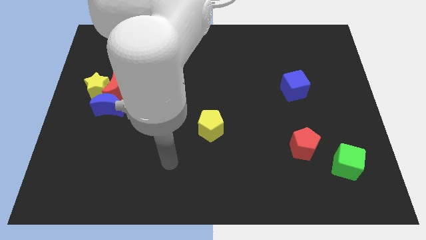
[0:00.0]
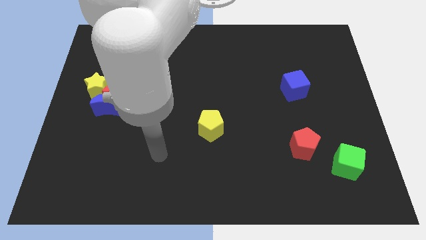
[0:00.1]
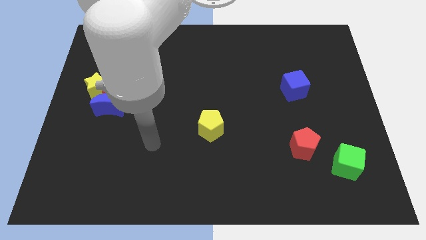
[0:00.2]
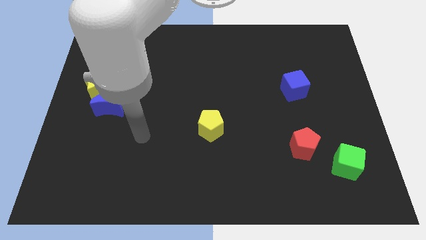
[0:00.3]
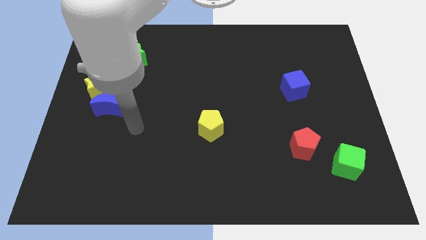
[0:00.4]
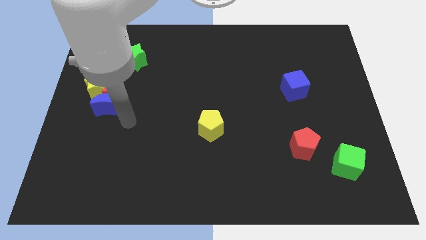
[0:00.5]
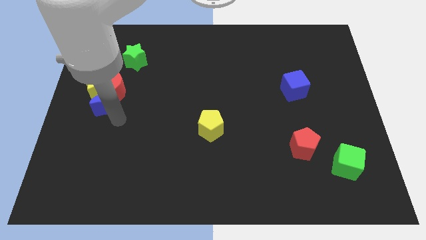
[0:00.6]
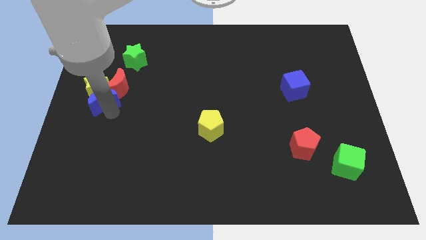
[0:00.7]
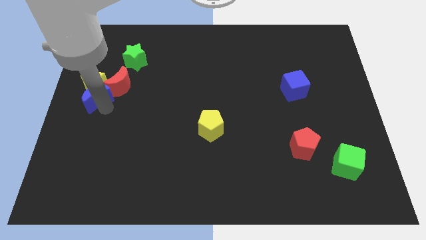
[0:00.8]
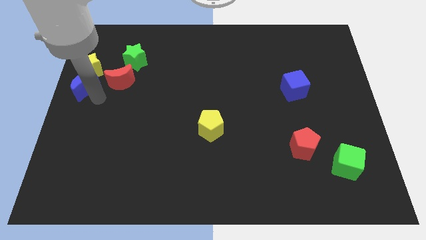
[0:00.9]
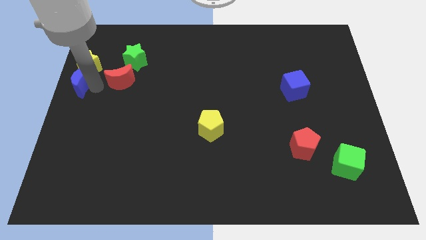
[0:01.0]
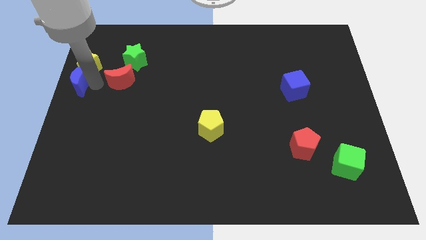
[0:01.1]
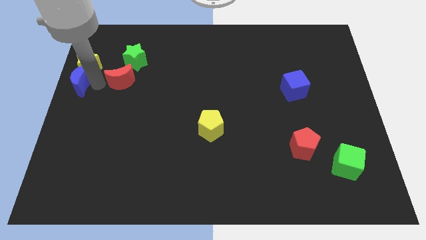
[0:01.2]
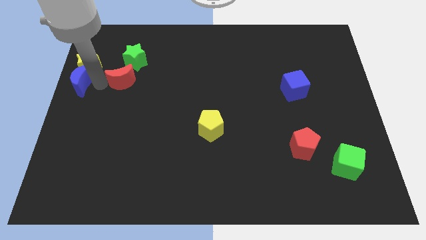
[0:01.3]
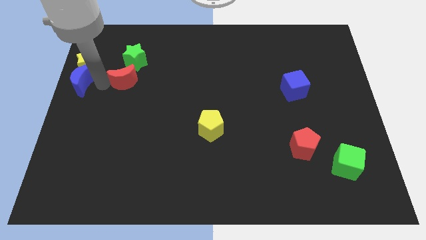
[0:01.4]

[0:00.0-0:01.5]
move the red moon away from the yellow star and blue moon

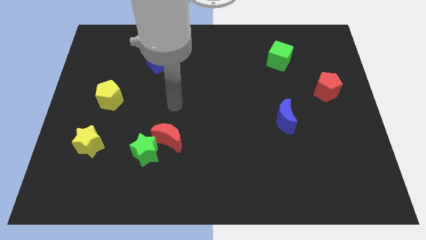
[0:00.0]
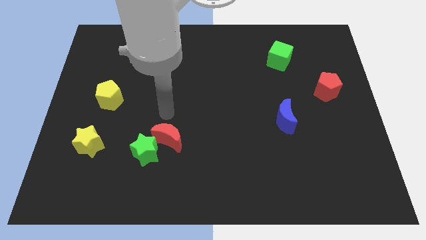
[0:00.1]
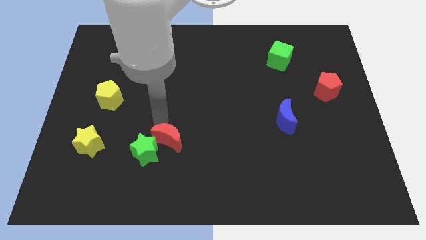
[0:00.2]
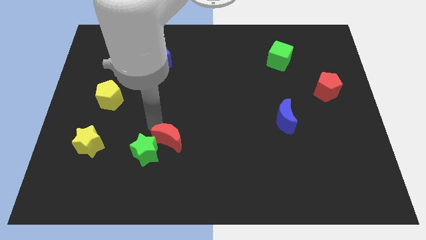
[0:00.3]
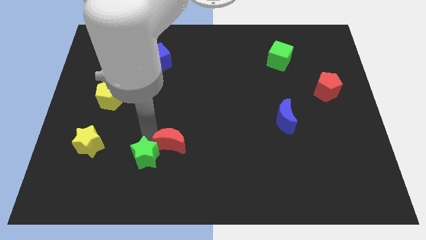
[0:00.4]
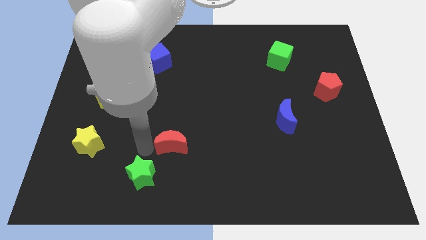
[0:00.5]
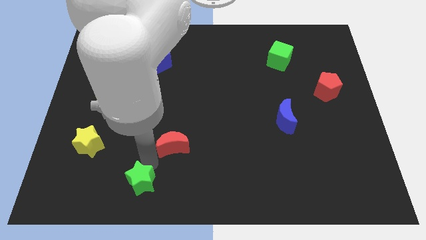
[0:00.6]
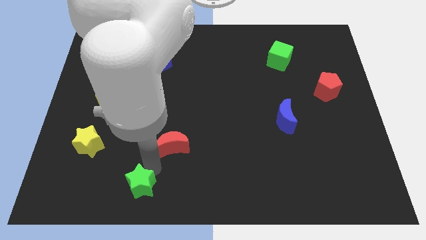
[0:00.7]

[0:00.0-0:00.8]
pull the red moon apart from the green star

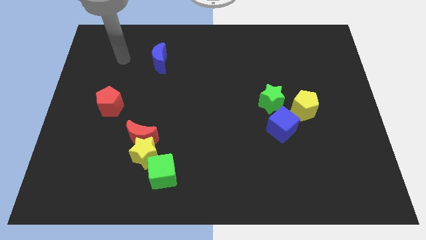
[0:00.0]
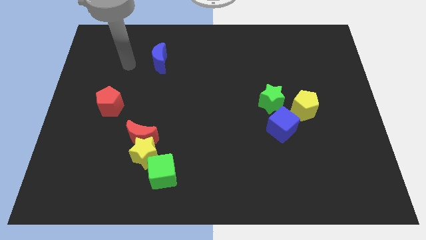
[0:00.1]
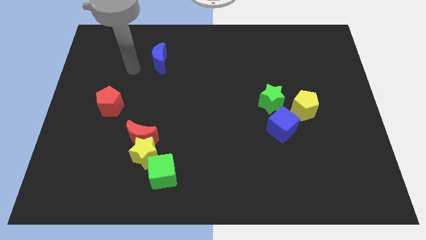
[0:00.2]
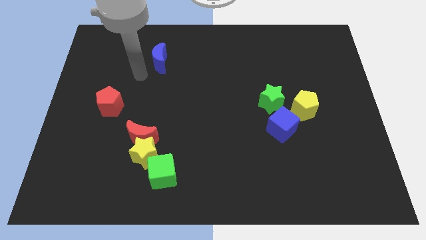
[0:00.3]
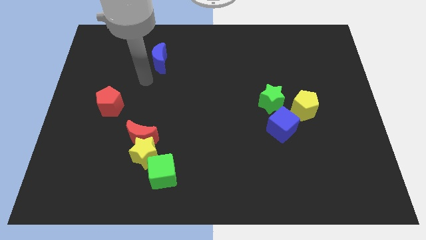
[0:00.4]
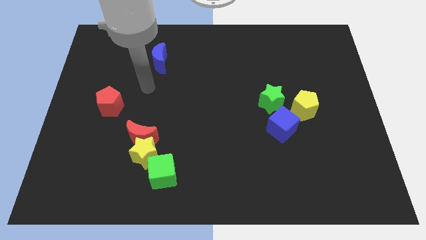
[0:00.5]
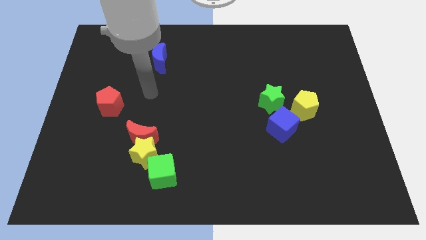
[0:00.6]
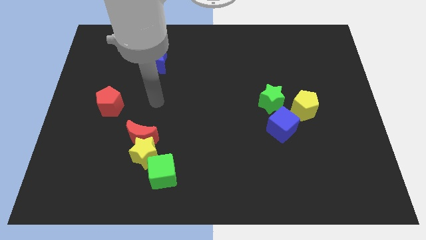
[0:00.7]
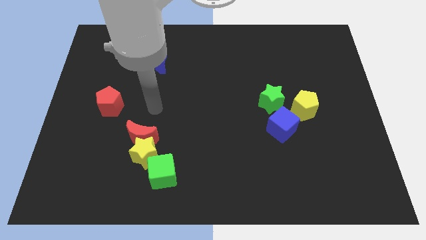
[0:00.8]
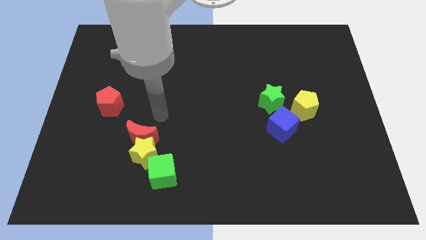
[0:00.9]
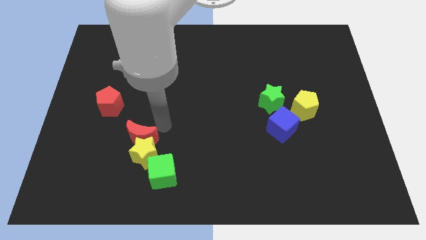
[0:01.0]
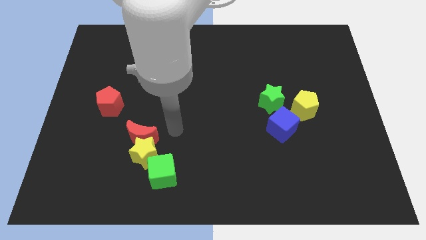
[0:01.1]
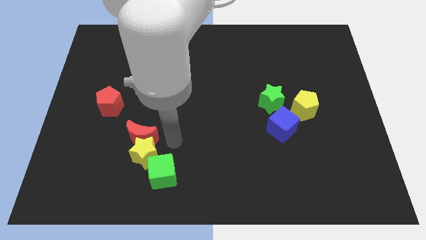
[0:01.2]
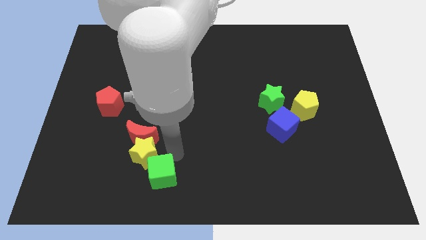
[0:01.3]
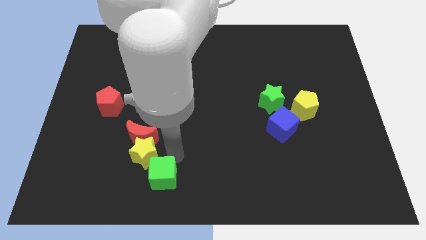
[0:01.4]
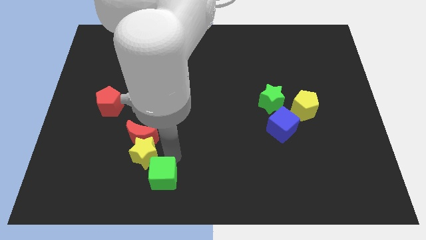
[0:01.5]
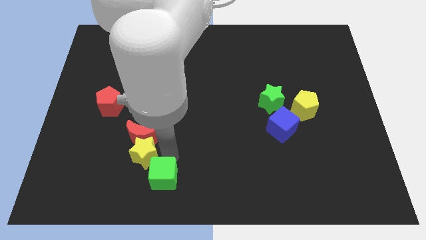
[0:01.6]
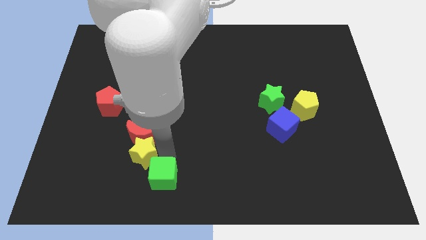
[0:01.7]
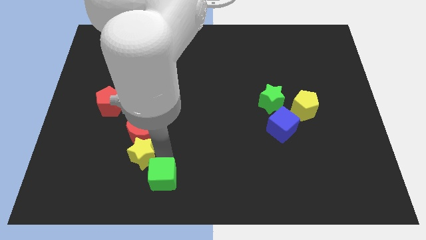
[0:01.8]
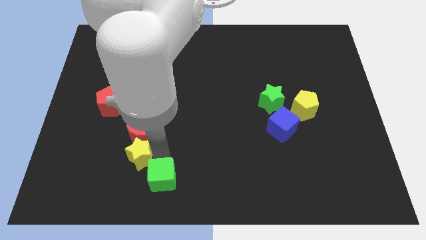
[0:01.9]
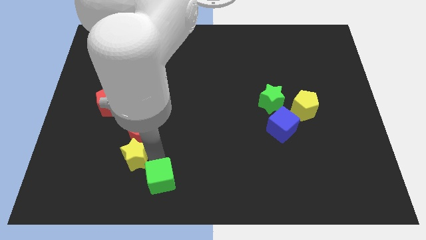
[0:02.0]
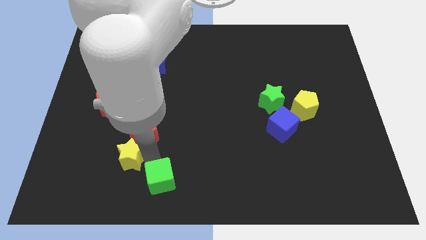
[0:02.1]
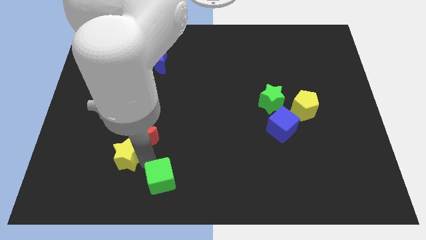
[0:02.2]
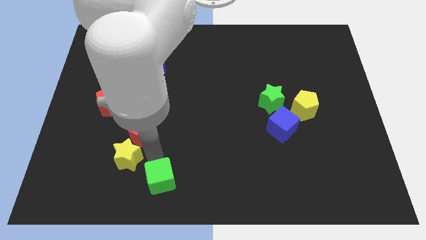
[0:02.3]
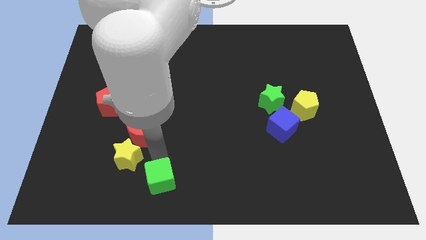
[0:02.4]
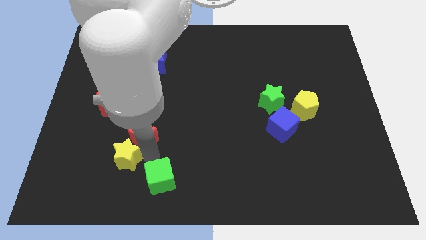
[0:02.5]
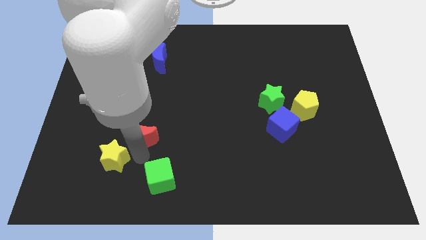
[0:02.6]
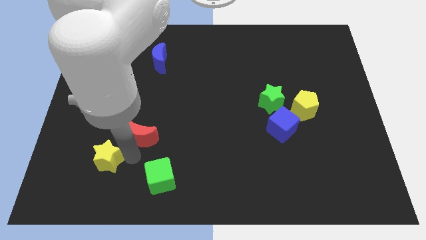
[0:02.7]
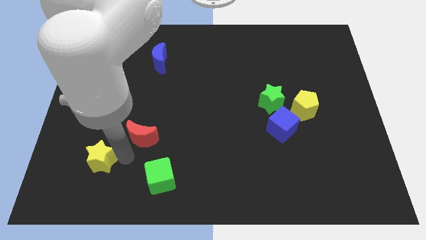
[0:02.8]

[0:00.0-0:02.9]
separate the yellow star from the red moon and green cube

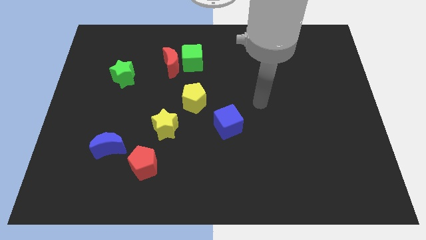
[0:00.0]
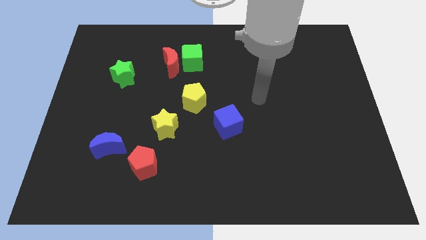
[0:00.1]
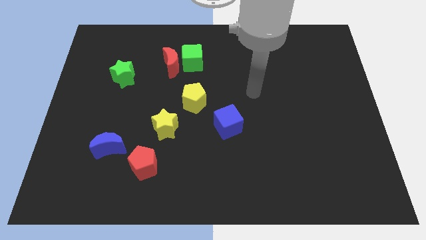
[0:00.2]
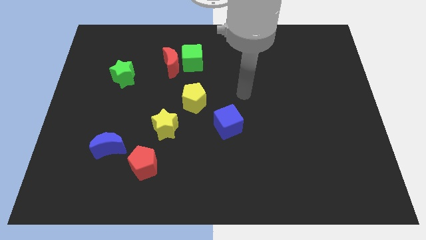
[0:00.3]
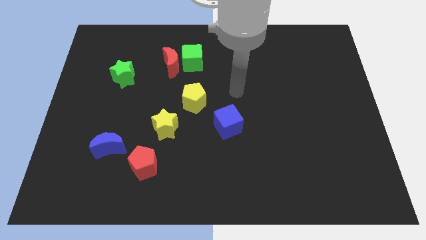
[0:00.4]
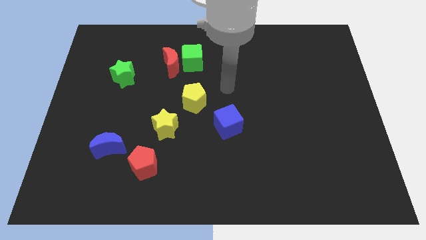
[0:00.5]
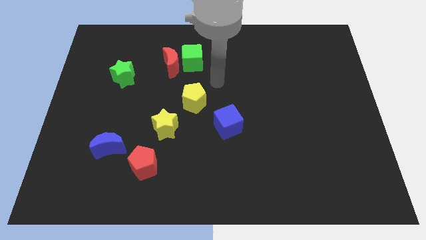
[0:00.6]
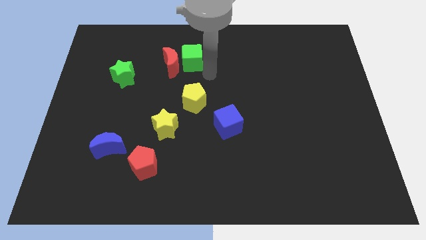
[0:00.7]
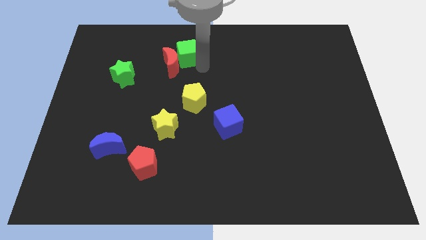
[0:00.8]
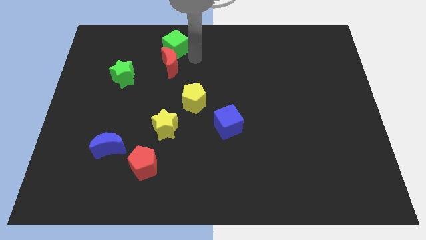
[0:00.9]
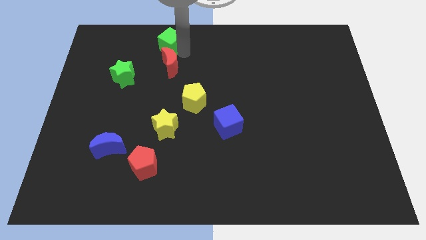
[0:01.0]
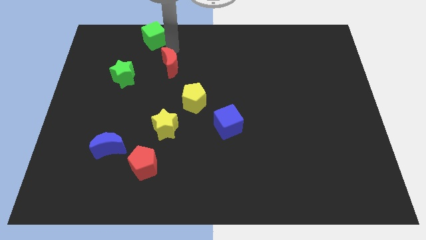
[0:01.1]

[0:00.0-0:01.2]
move the red moon away from the green cube

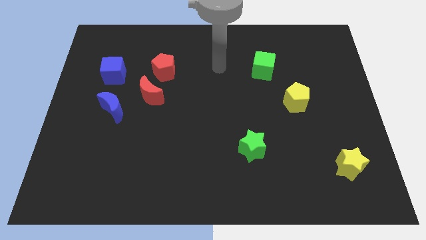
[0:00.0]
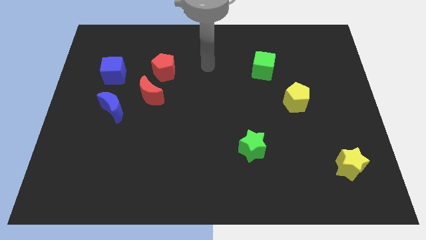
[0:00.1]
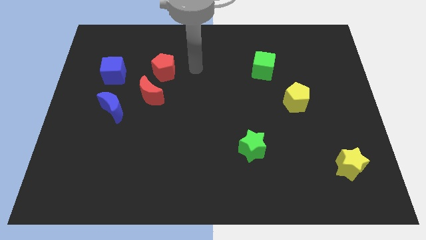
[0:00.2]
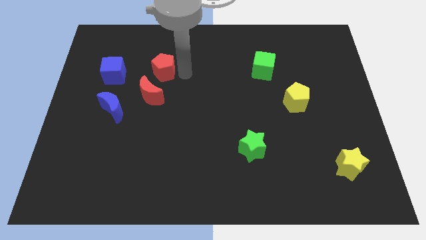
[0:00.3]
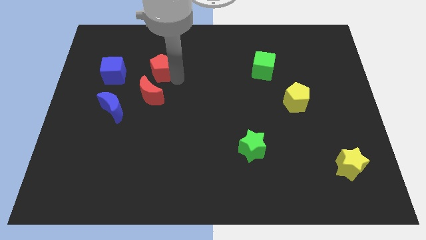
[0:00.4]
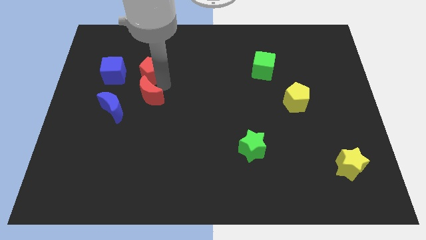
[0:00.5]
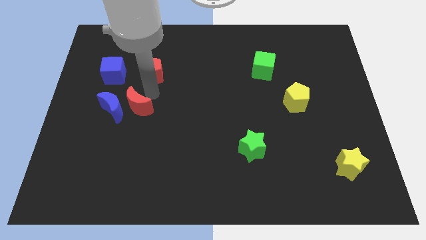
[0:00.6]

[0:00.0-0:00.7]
separate the red pentagon from the red moon

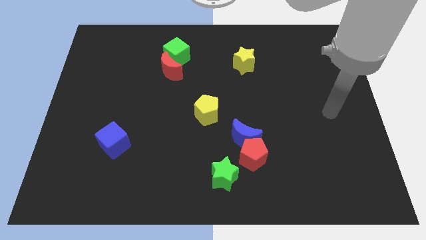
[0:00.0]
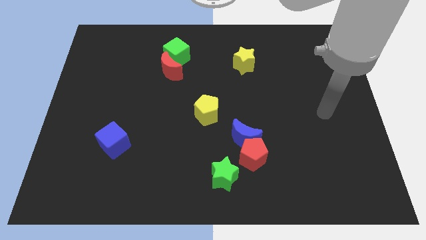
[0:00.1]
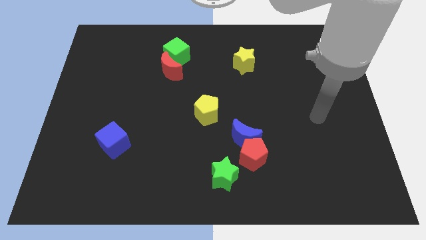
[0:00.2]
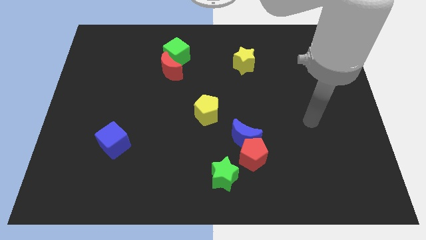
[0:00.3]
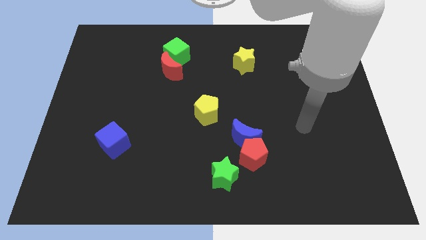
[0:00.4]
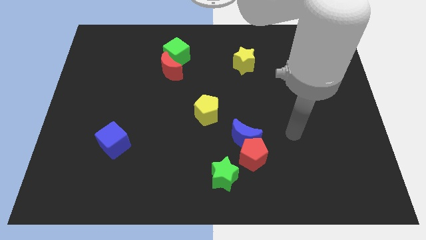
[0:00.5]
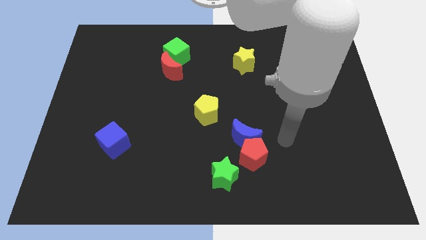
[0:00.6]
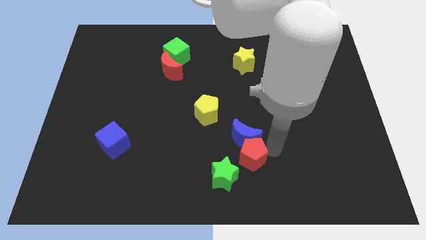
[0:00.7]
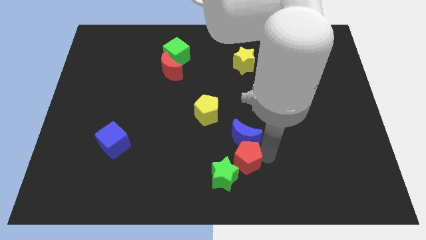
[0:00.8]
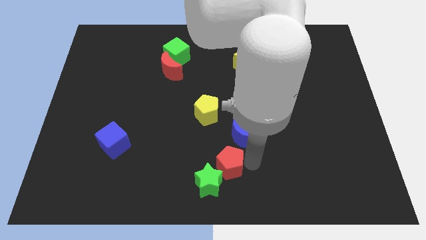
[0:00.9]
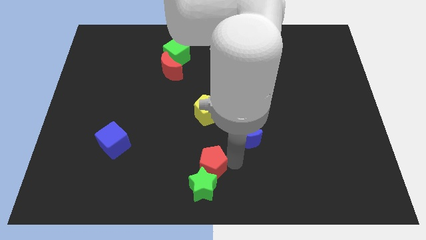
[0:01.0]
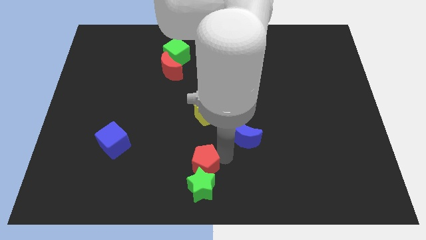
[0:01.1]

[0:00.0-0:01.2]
separate the blue moon from the red pentagon

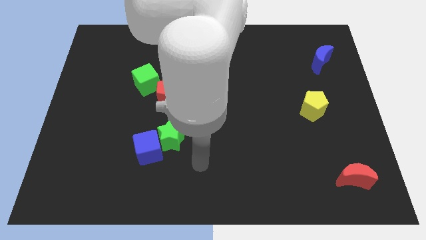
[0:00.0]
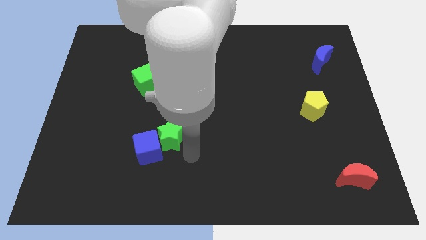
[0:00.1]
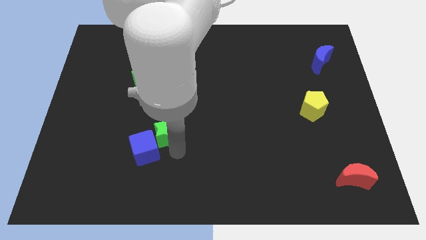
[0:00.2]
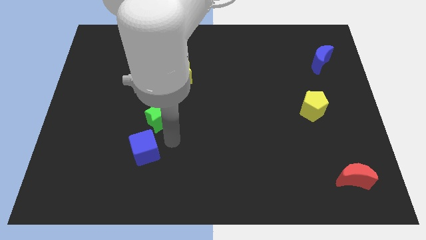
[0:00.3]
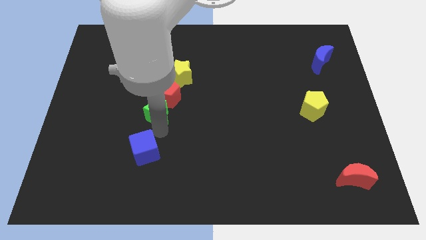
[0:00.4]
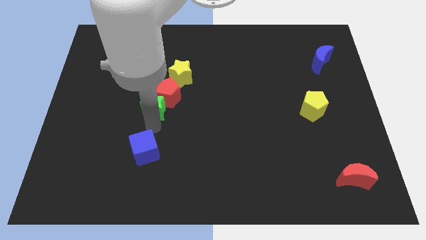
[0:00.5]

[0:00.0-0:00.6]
move the blue cube away from the green star

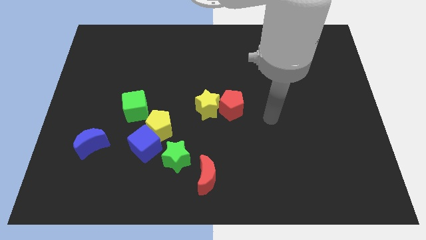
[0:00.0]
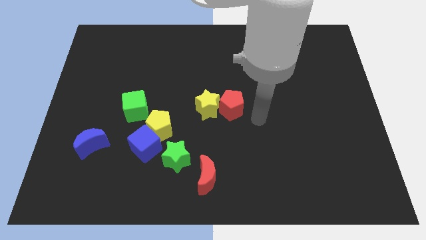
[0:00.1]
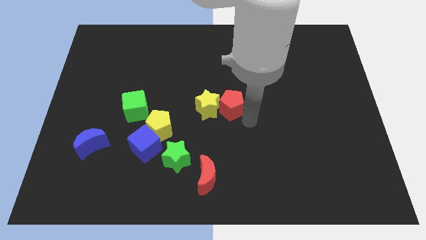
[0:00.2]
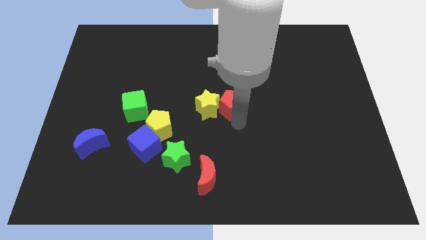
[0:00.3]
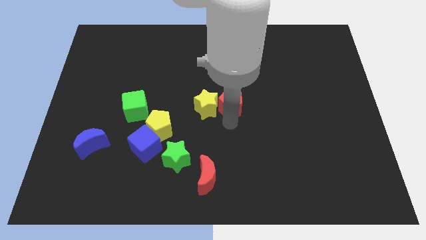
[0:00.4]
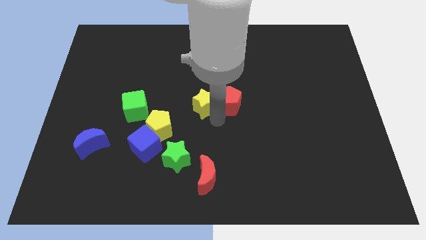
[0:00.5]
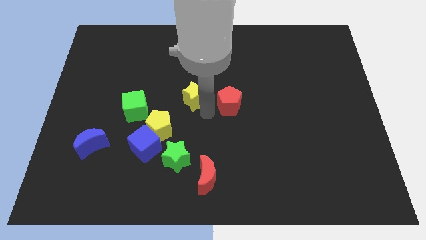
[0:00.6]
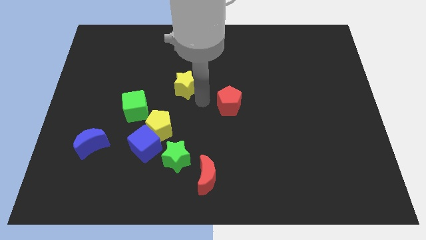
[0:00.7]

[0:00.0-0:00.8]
separate the red pentagon from the yellow star
